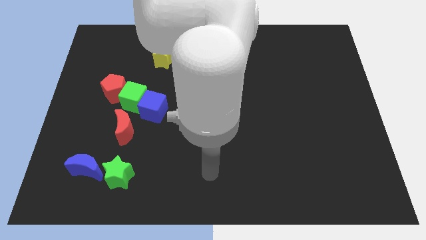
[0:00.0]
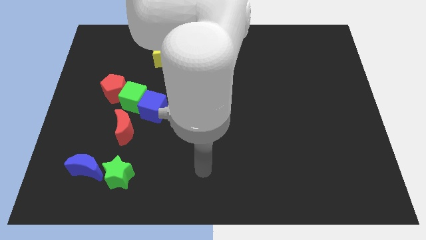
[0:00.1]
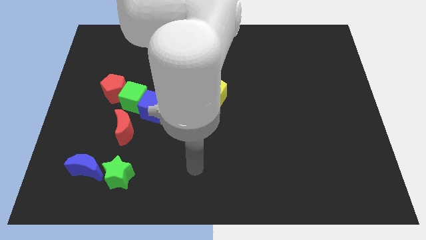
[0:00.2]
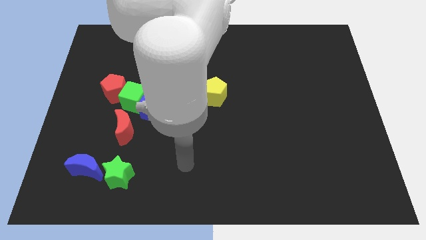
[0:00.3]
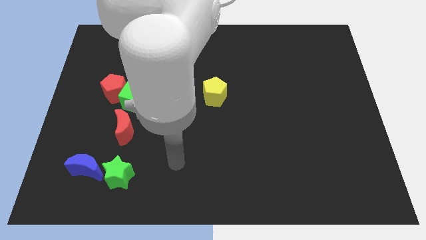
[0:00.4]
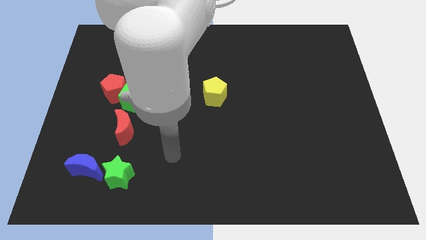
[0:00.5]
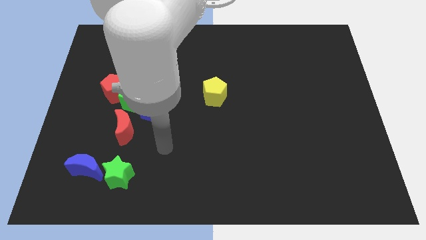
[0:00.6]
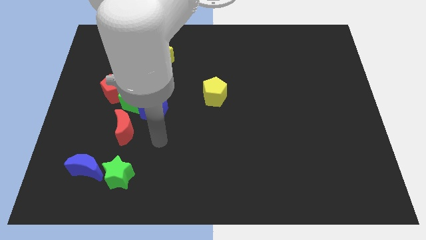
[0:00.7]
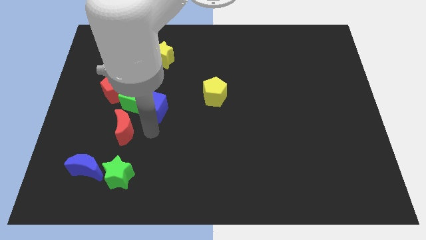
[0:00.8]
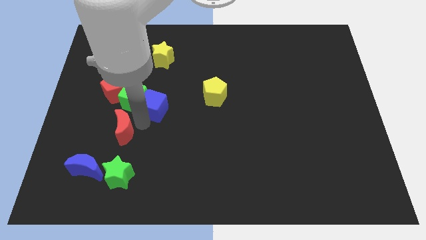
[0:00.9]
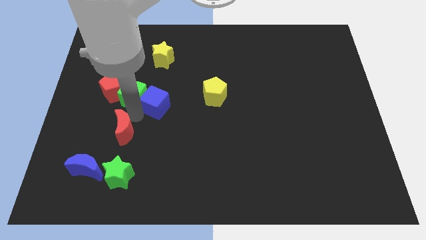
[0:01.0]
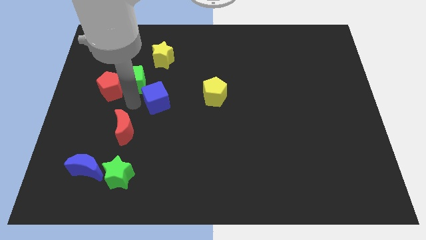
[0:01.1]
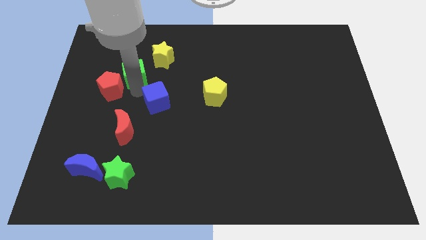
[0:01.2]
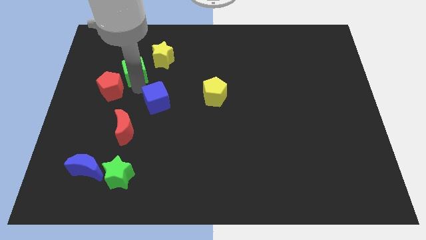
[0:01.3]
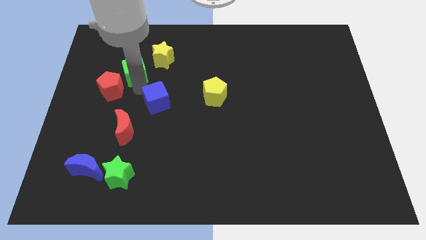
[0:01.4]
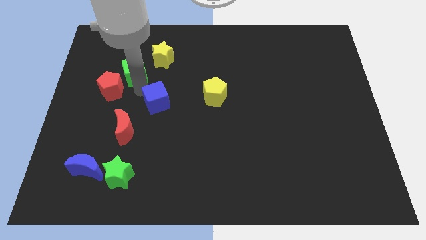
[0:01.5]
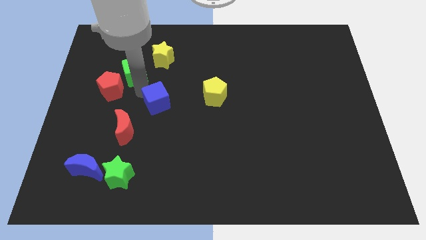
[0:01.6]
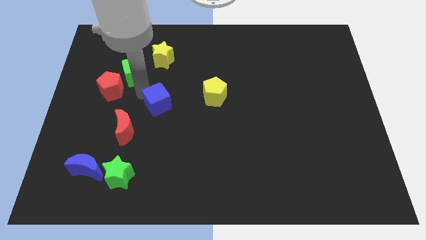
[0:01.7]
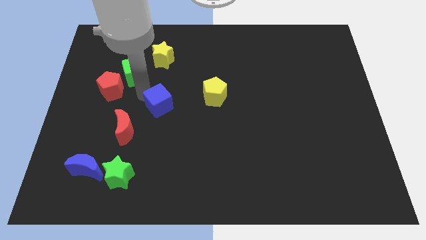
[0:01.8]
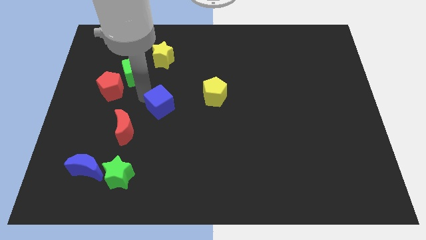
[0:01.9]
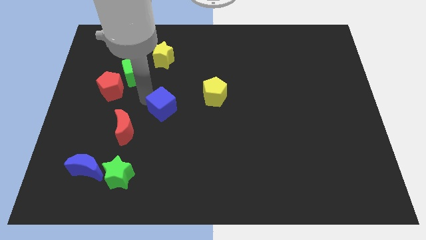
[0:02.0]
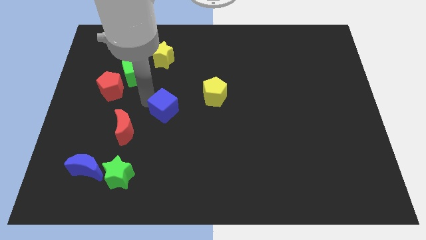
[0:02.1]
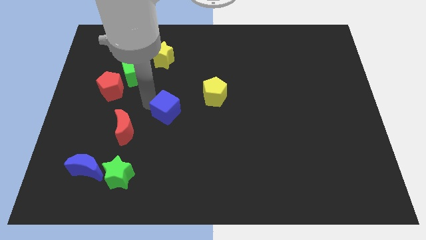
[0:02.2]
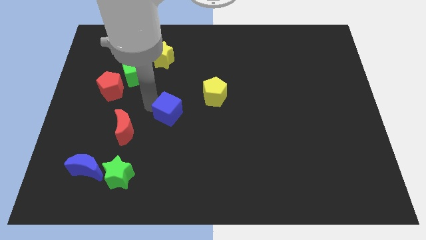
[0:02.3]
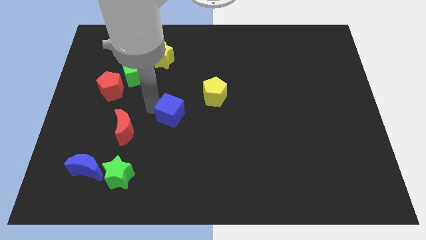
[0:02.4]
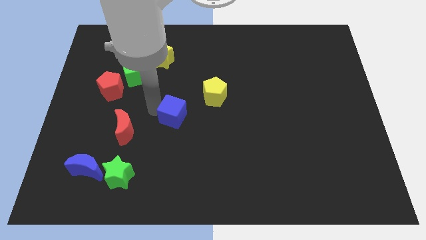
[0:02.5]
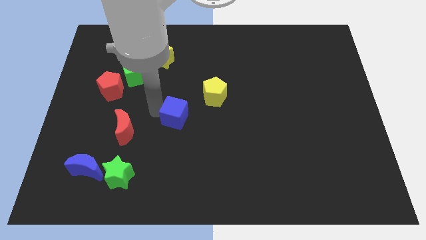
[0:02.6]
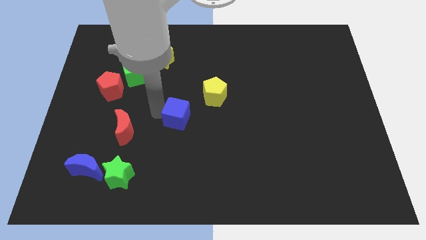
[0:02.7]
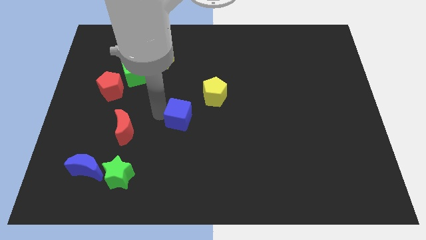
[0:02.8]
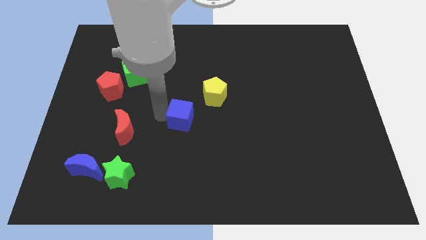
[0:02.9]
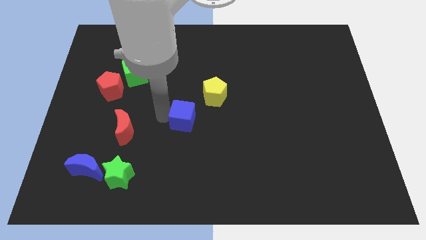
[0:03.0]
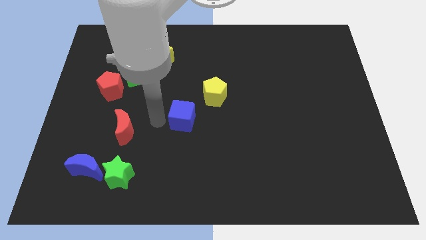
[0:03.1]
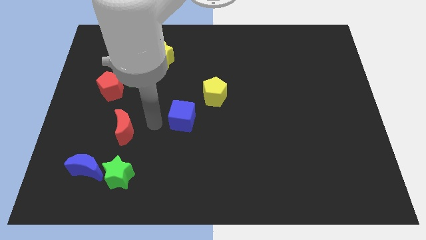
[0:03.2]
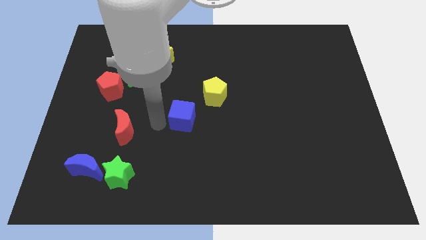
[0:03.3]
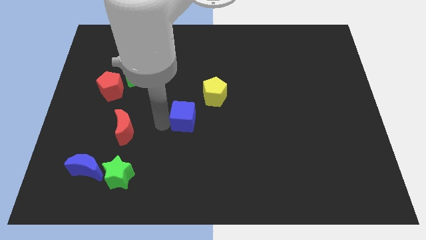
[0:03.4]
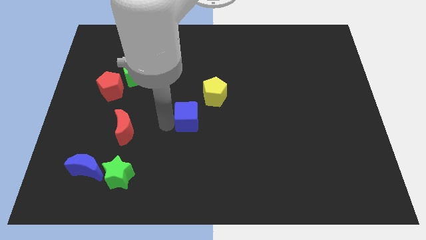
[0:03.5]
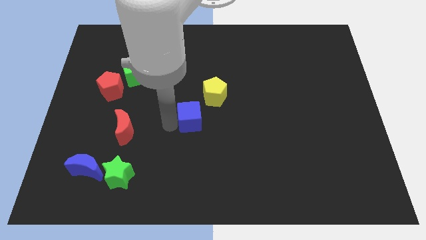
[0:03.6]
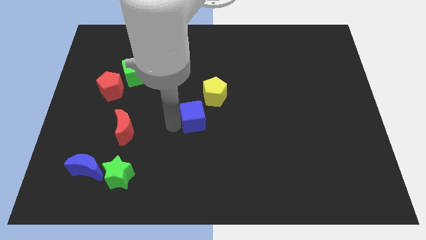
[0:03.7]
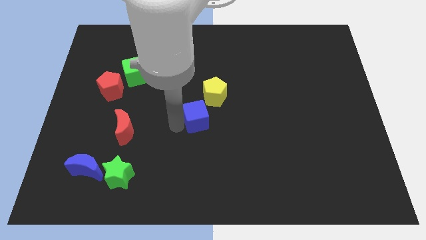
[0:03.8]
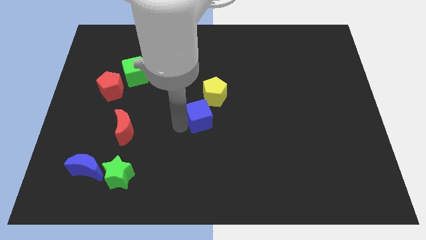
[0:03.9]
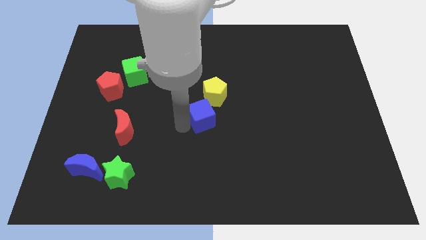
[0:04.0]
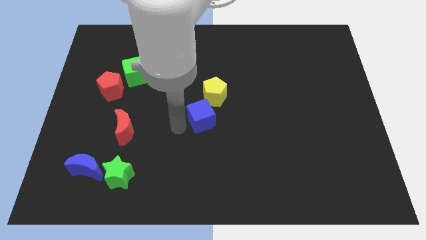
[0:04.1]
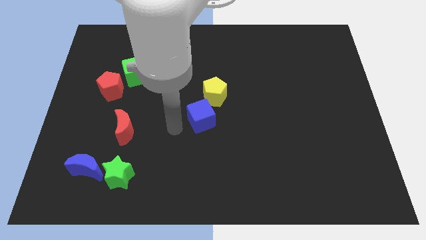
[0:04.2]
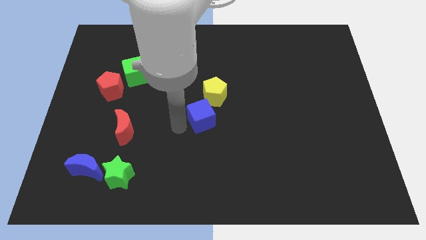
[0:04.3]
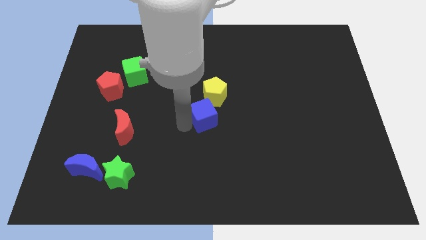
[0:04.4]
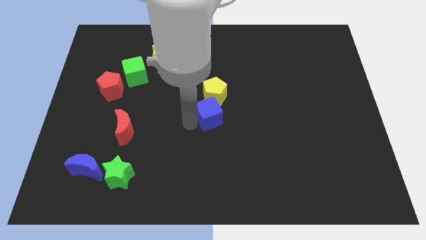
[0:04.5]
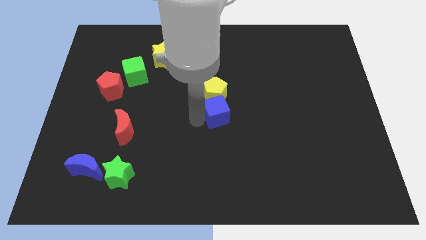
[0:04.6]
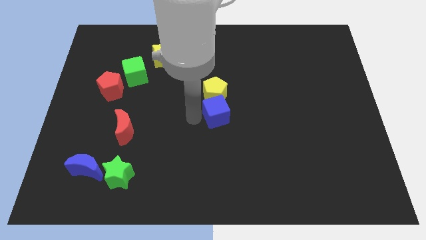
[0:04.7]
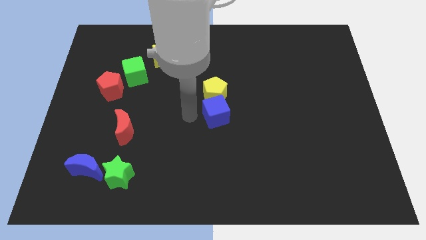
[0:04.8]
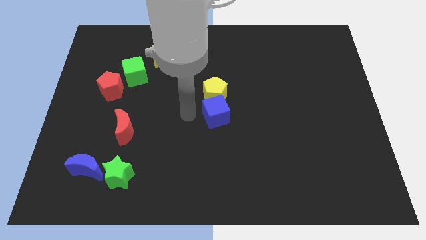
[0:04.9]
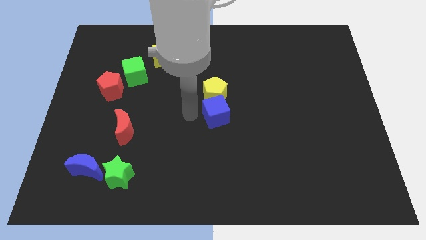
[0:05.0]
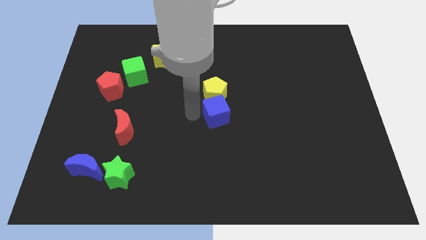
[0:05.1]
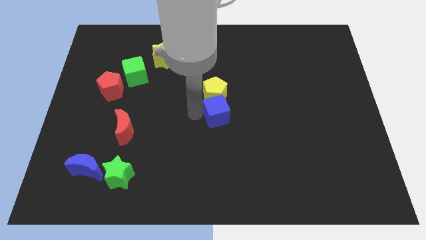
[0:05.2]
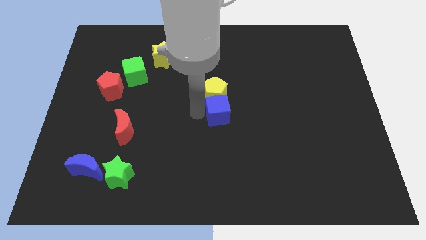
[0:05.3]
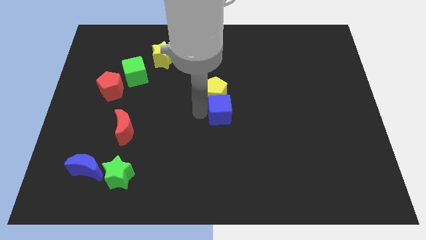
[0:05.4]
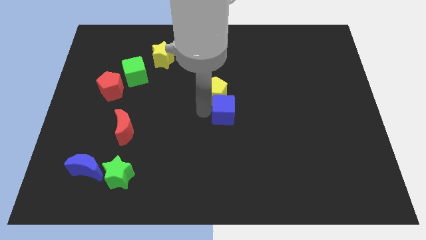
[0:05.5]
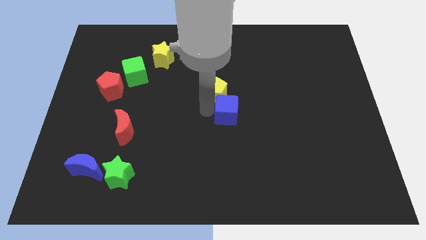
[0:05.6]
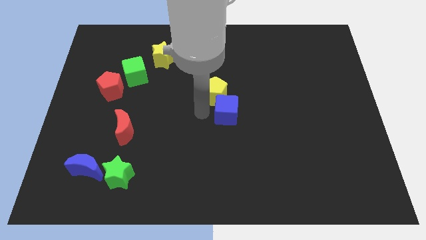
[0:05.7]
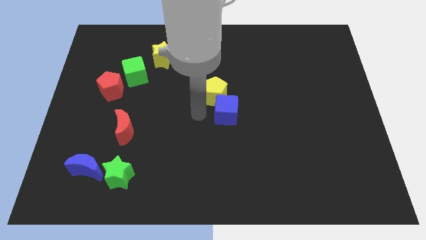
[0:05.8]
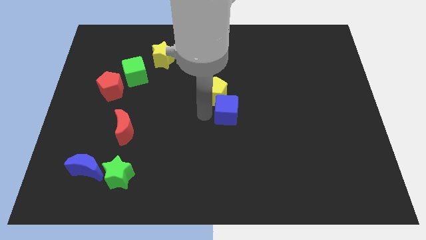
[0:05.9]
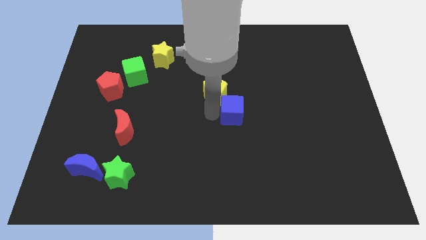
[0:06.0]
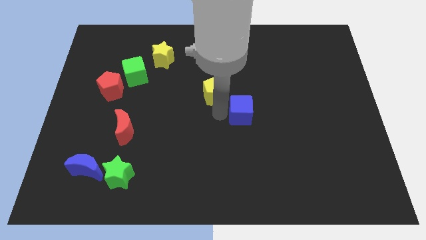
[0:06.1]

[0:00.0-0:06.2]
slide the blue cube right

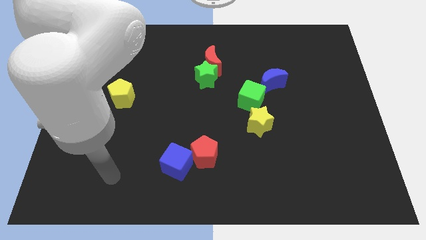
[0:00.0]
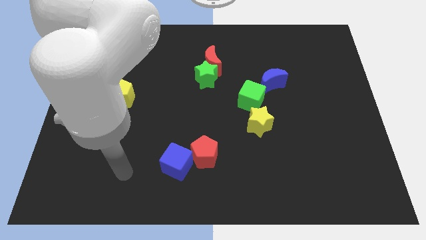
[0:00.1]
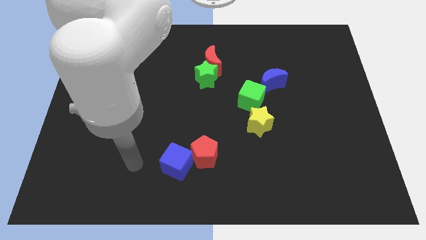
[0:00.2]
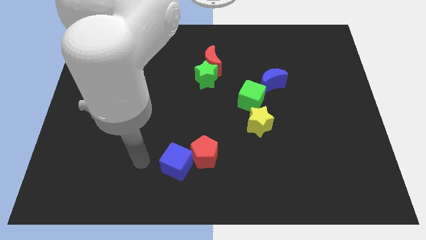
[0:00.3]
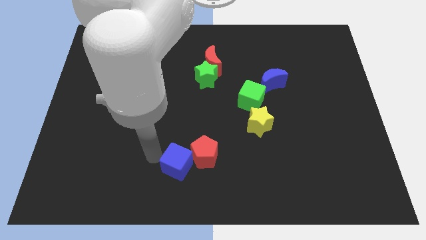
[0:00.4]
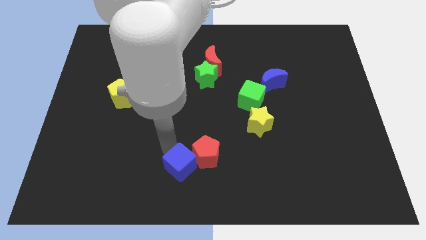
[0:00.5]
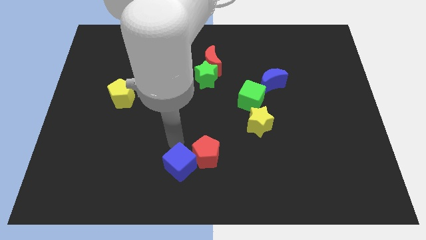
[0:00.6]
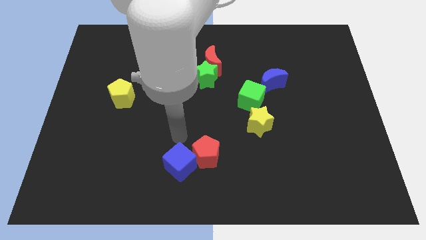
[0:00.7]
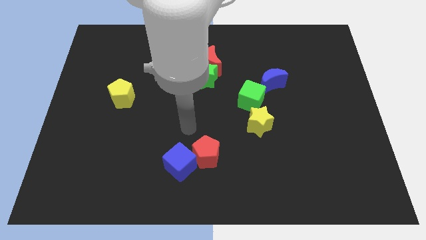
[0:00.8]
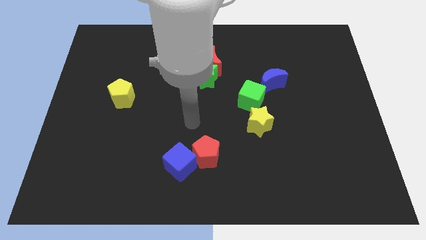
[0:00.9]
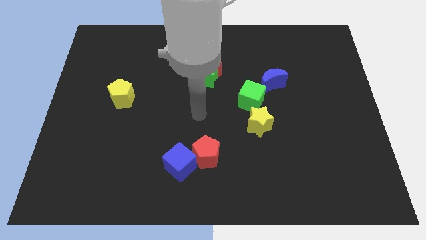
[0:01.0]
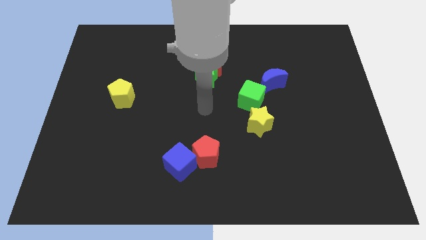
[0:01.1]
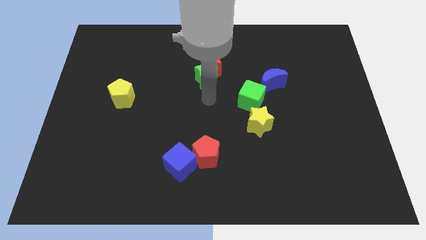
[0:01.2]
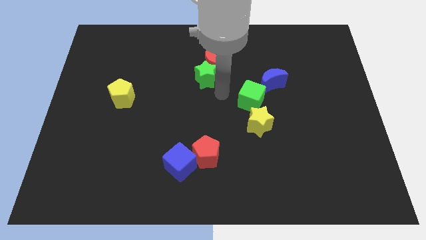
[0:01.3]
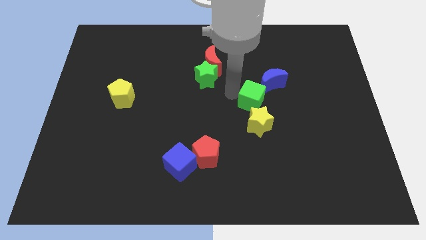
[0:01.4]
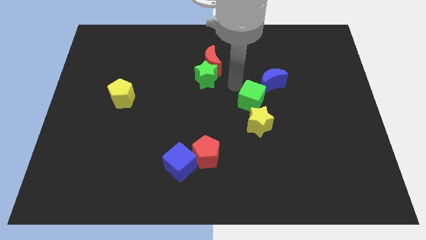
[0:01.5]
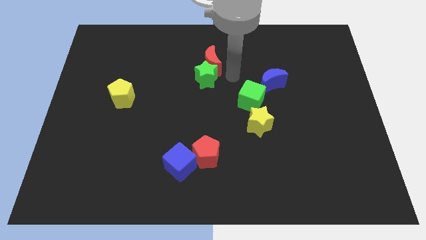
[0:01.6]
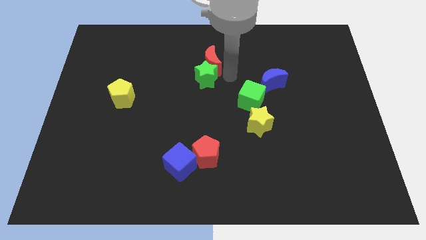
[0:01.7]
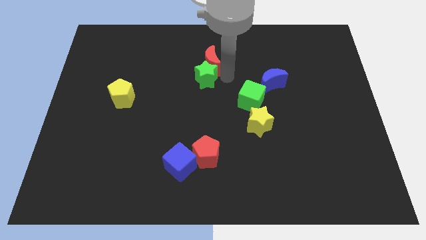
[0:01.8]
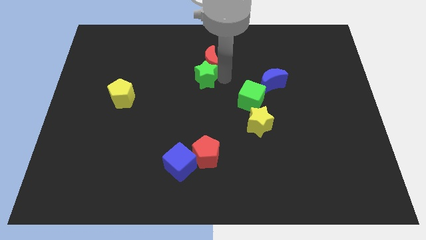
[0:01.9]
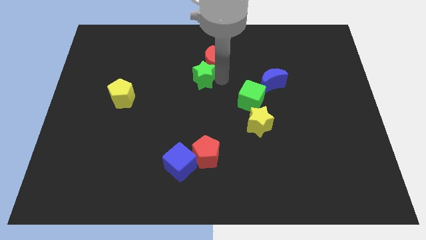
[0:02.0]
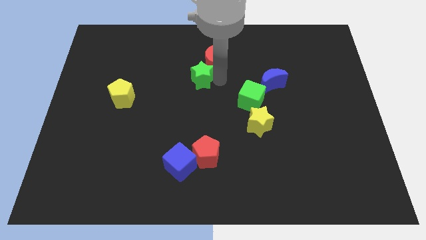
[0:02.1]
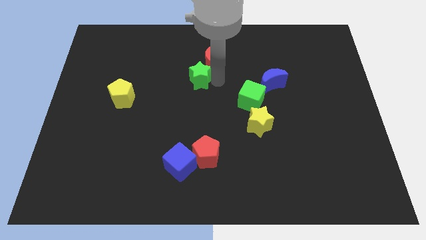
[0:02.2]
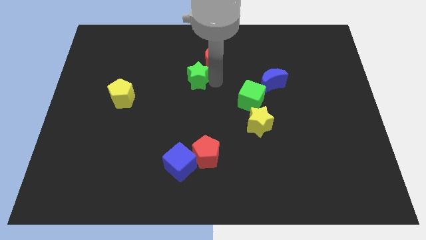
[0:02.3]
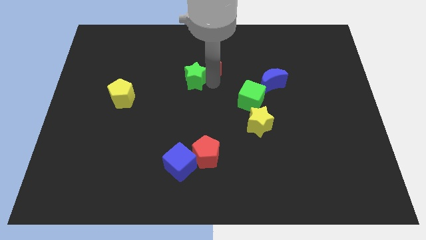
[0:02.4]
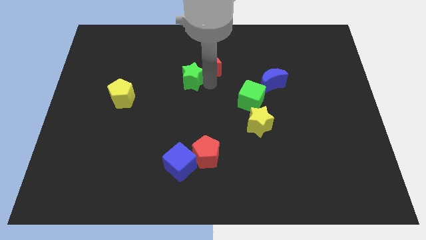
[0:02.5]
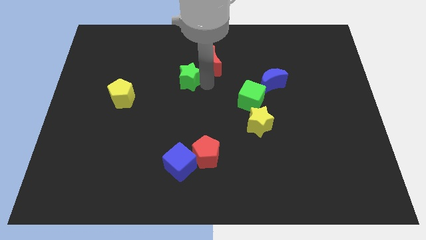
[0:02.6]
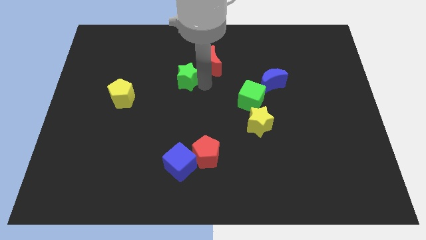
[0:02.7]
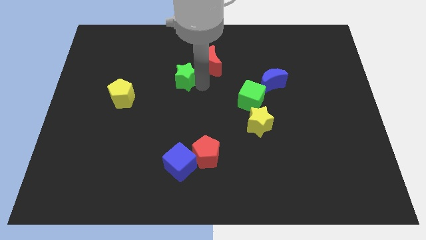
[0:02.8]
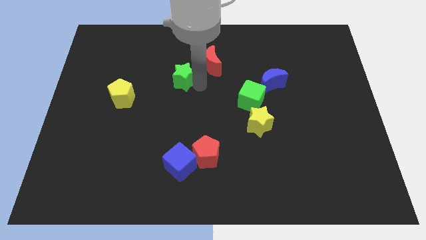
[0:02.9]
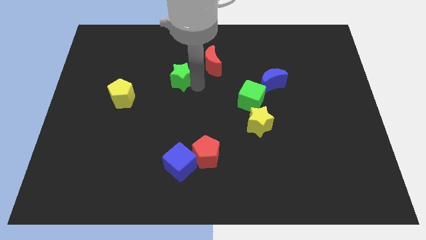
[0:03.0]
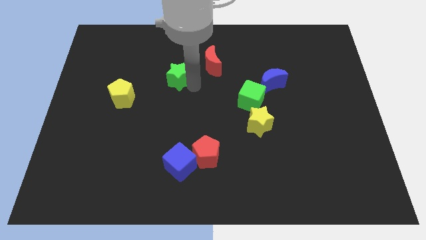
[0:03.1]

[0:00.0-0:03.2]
move the green star slightly left
